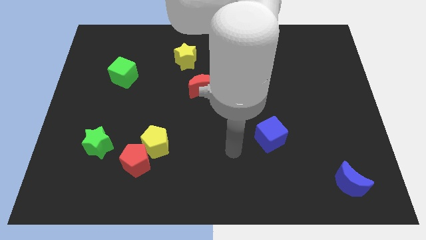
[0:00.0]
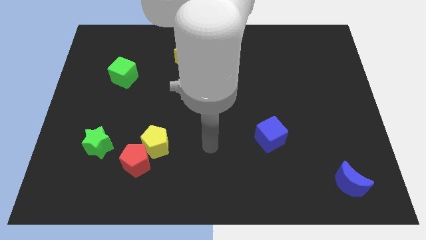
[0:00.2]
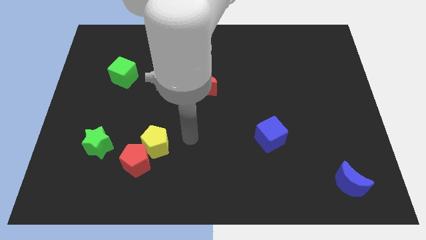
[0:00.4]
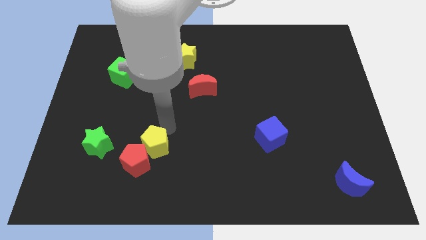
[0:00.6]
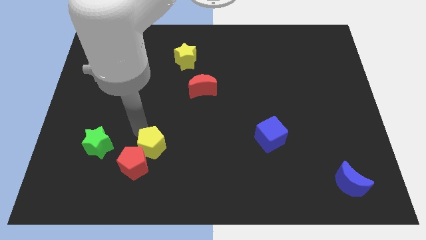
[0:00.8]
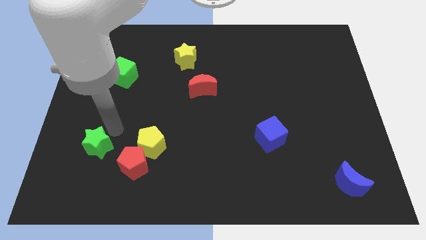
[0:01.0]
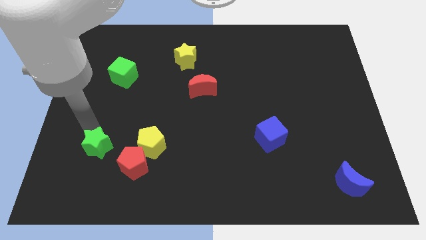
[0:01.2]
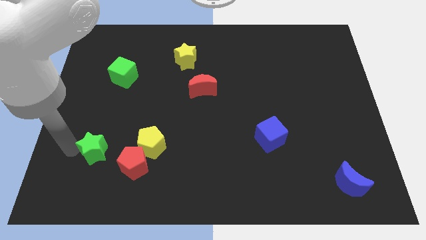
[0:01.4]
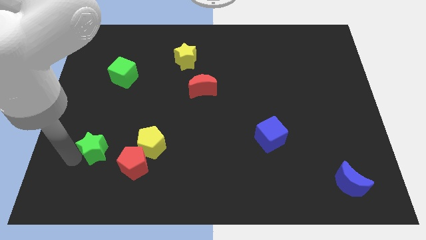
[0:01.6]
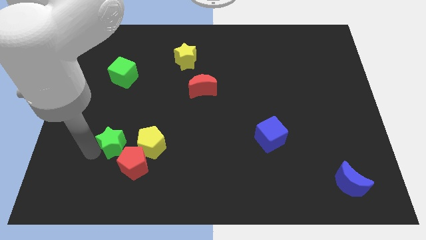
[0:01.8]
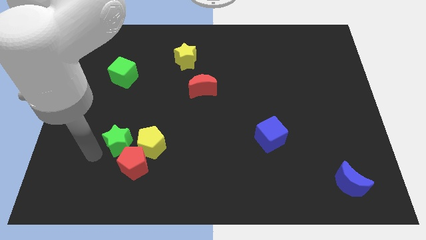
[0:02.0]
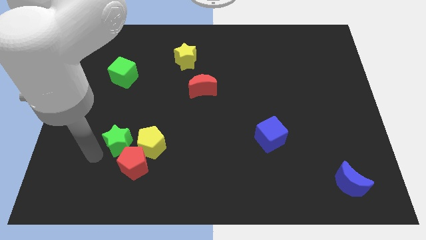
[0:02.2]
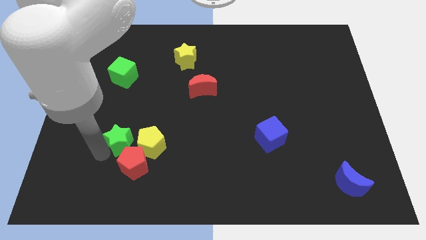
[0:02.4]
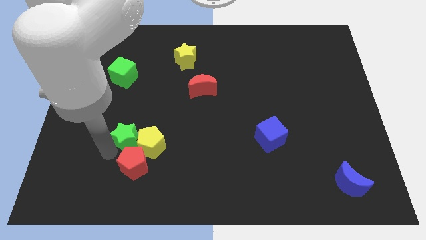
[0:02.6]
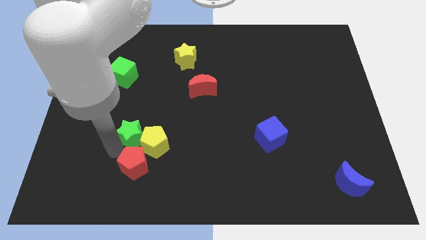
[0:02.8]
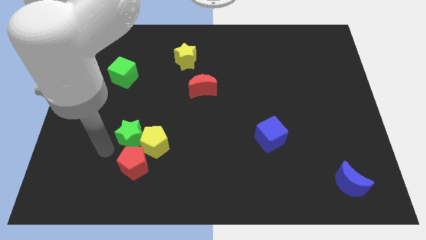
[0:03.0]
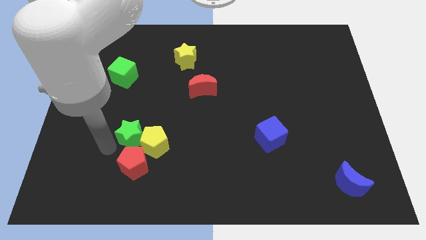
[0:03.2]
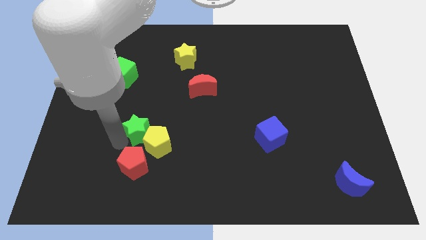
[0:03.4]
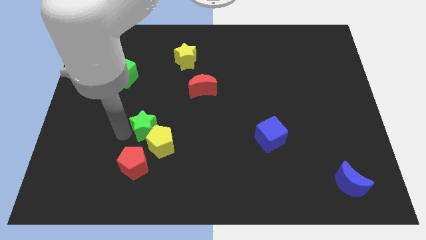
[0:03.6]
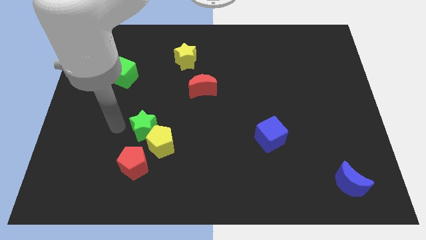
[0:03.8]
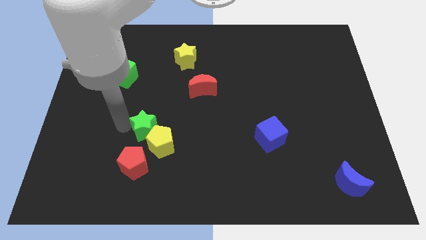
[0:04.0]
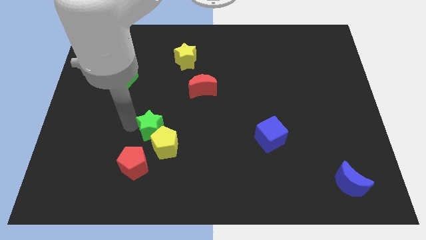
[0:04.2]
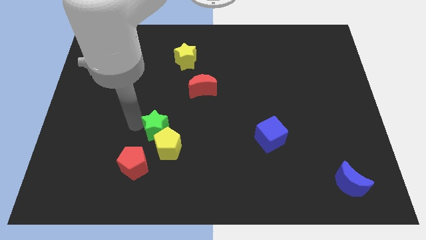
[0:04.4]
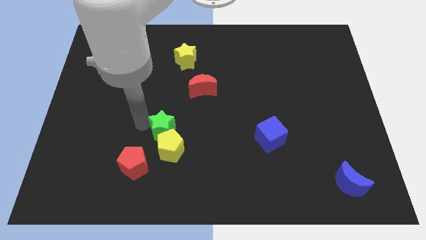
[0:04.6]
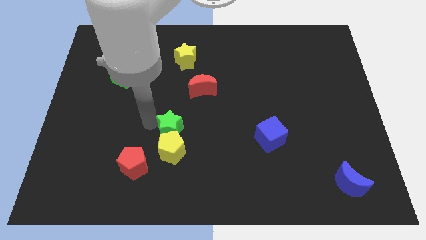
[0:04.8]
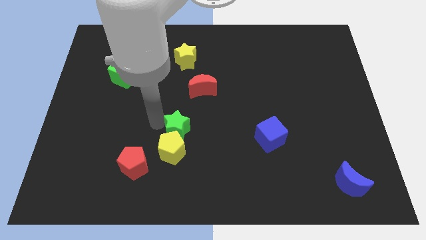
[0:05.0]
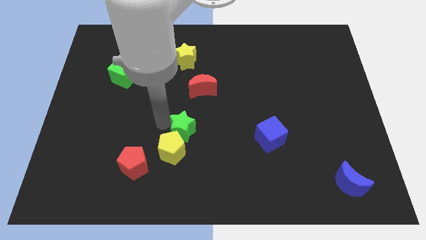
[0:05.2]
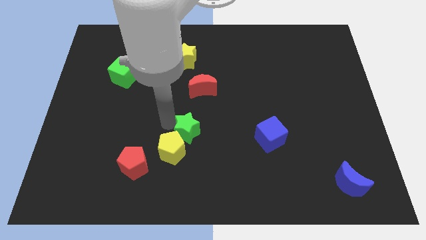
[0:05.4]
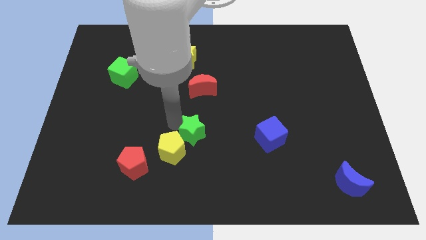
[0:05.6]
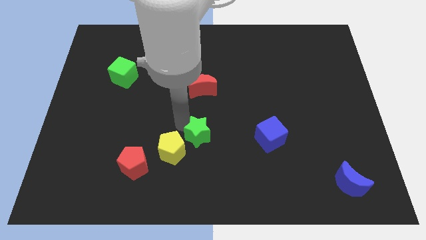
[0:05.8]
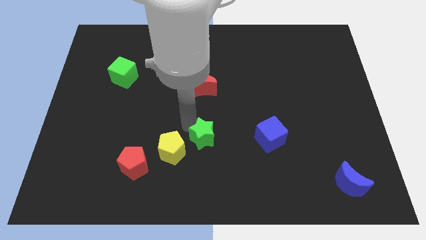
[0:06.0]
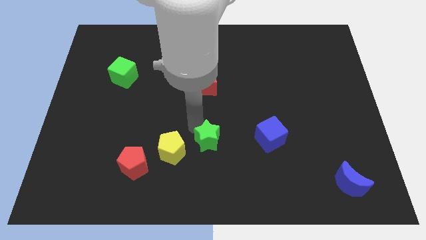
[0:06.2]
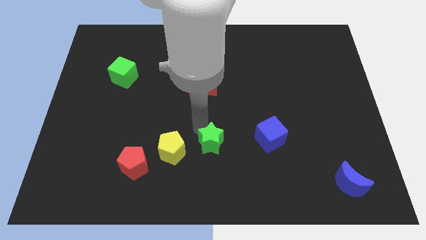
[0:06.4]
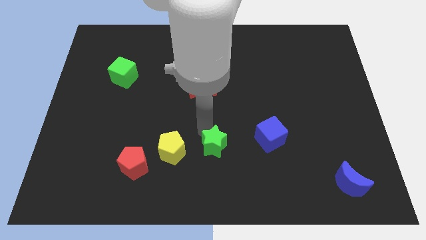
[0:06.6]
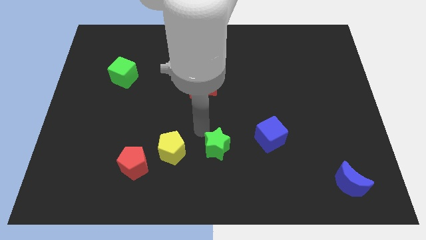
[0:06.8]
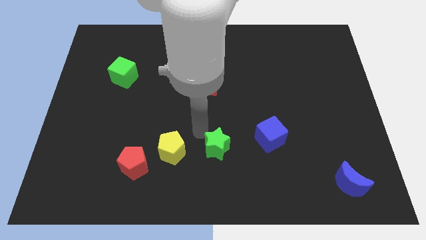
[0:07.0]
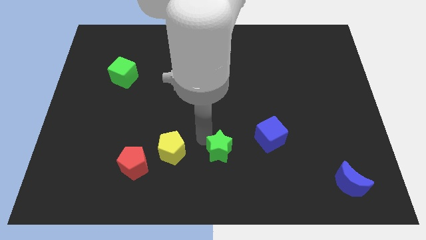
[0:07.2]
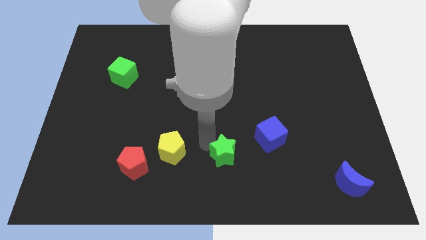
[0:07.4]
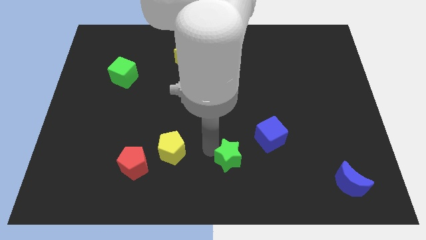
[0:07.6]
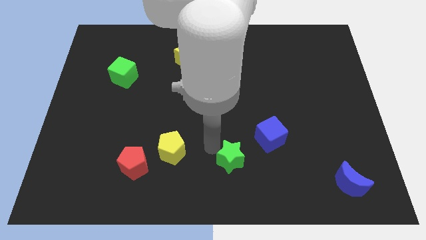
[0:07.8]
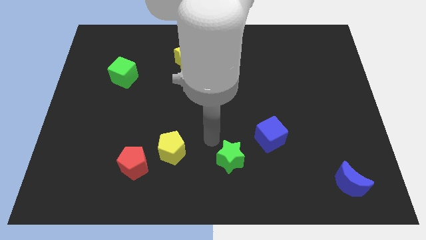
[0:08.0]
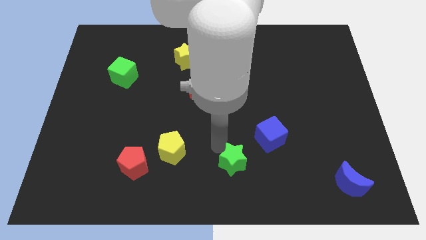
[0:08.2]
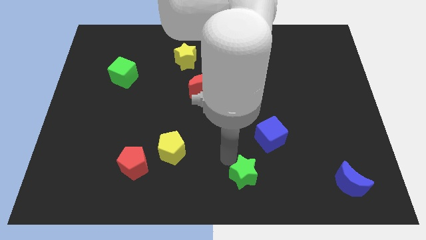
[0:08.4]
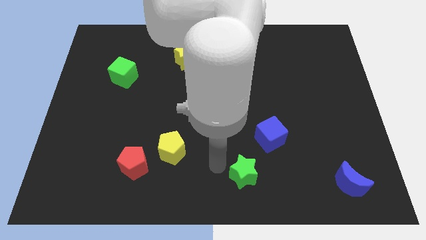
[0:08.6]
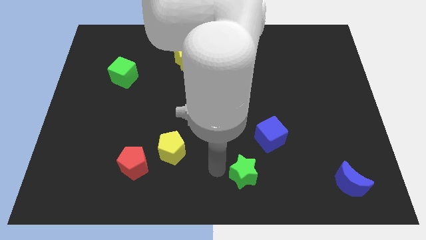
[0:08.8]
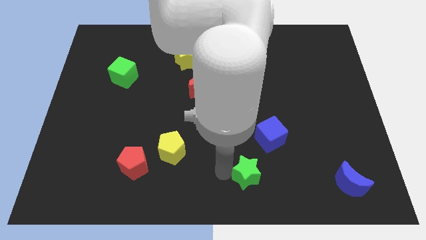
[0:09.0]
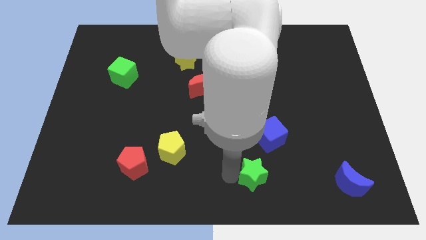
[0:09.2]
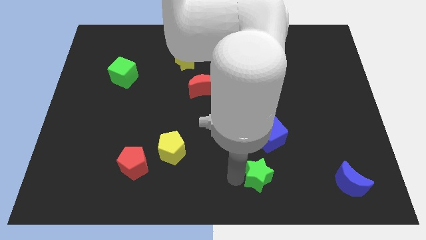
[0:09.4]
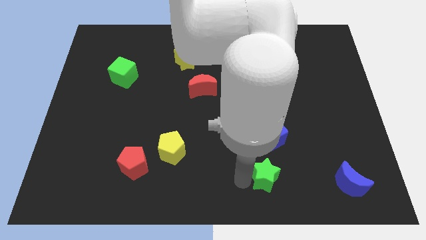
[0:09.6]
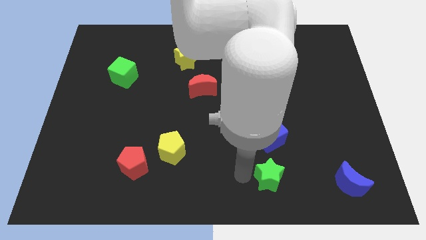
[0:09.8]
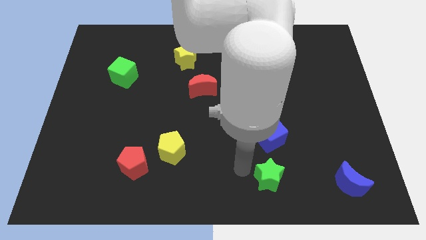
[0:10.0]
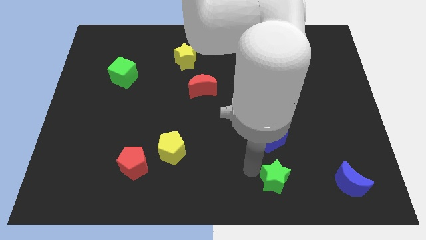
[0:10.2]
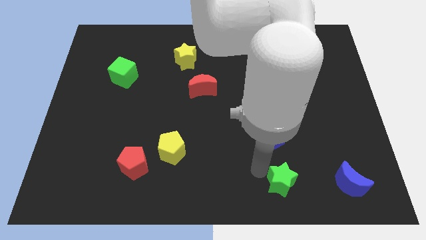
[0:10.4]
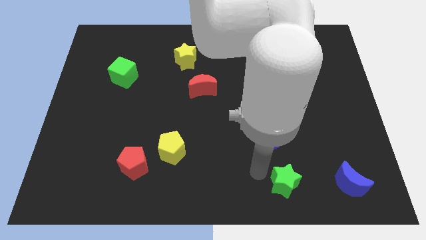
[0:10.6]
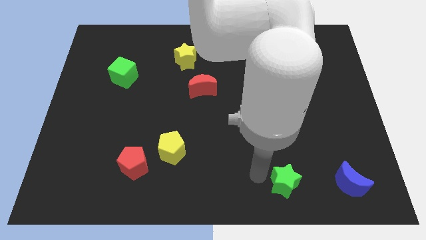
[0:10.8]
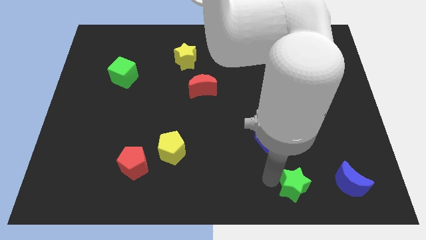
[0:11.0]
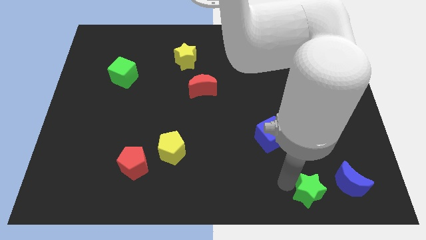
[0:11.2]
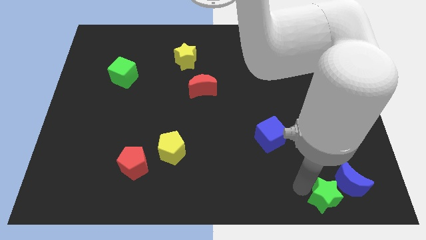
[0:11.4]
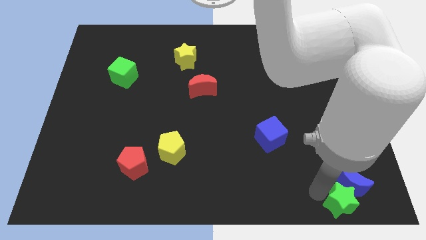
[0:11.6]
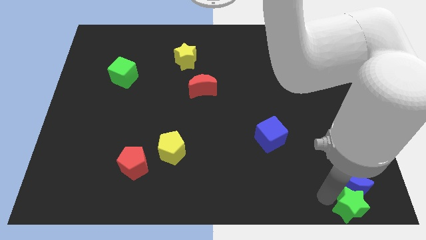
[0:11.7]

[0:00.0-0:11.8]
put the green star to the lower right corner

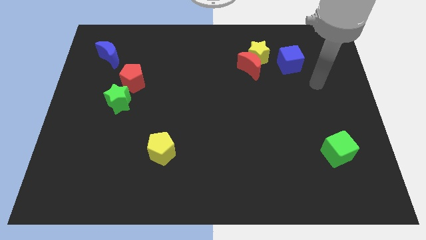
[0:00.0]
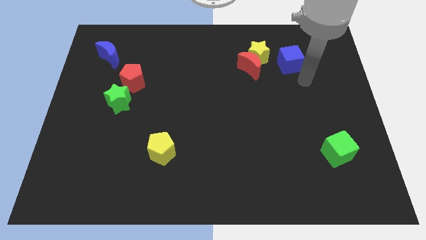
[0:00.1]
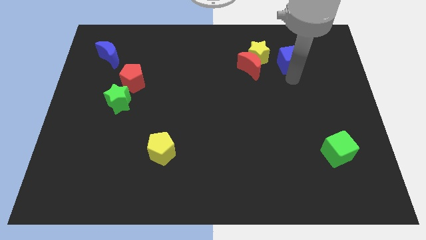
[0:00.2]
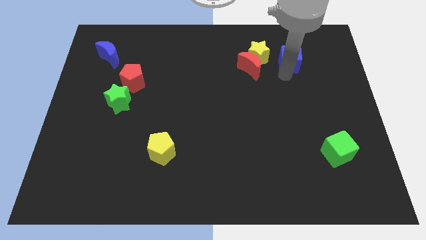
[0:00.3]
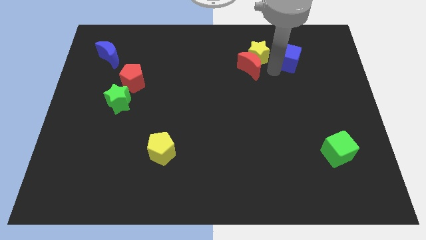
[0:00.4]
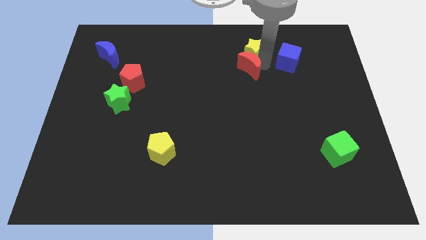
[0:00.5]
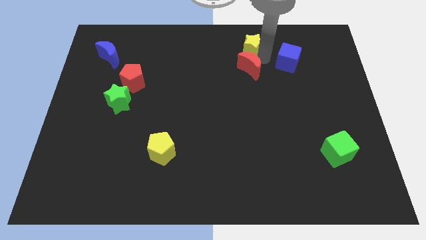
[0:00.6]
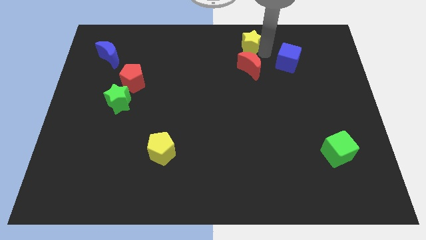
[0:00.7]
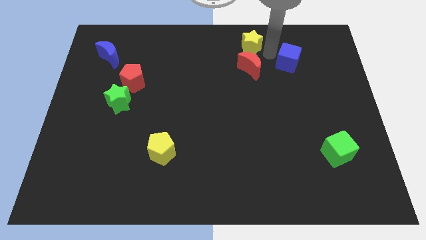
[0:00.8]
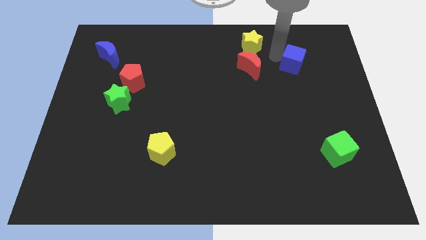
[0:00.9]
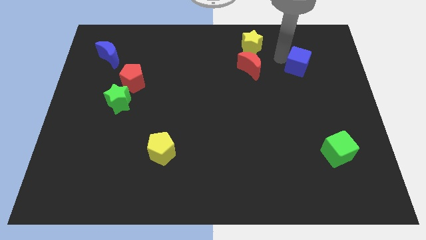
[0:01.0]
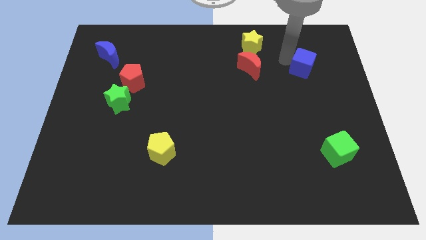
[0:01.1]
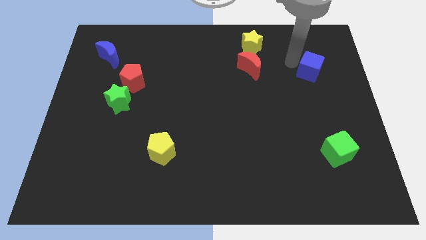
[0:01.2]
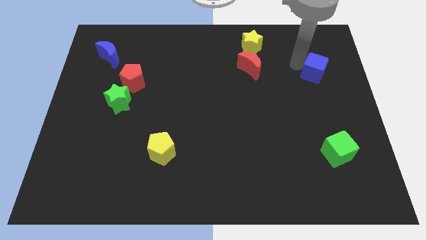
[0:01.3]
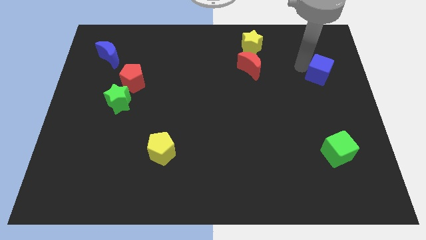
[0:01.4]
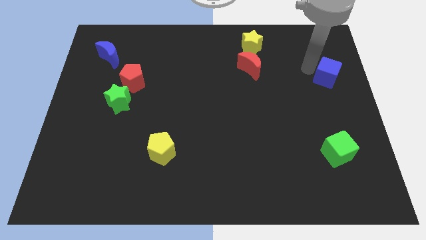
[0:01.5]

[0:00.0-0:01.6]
slide the blue cube to the right side of the board
